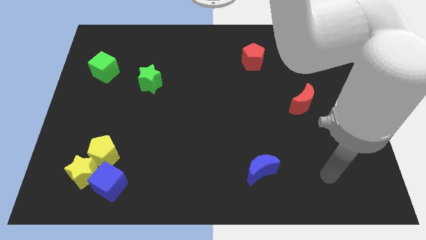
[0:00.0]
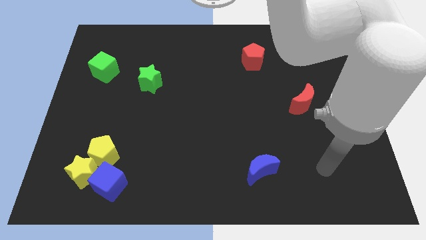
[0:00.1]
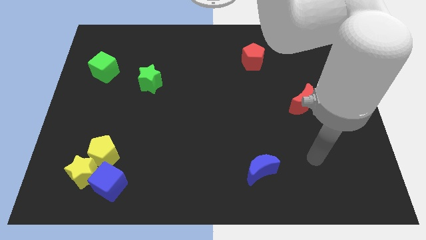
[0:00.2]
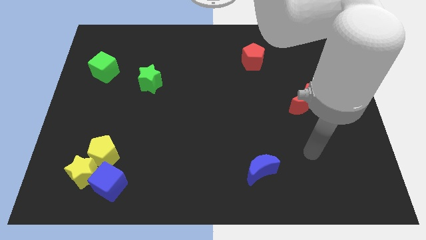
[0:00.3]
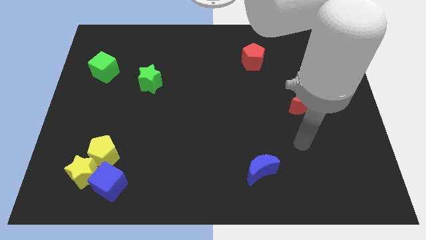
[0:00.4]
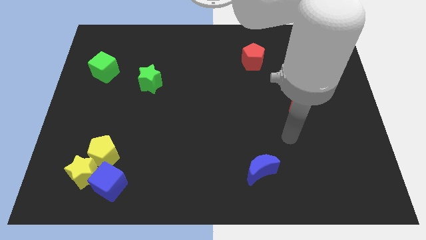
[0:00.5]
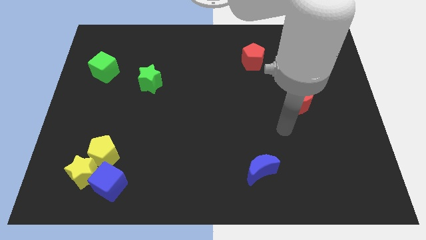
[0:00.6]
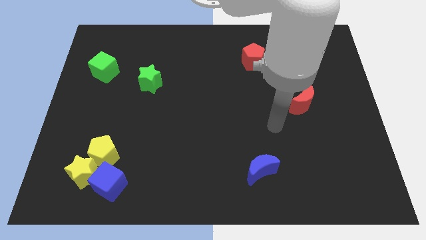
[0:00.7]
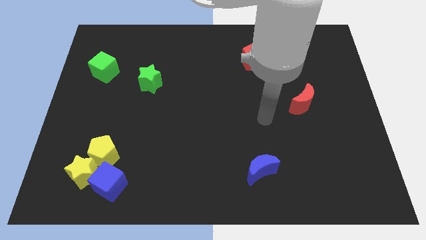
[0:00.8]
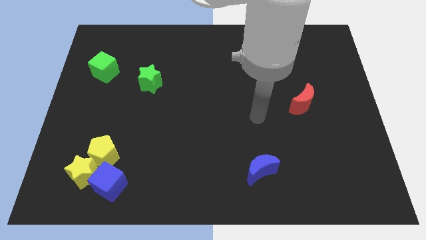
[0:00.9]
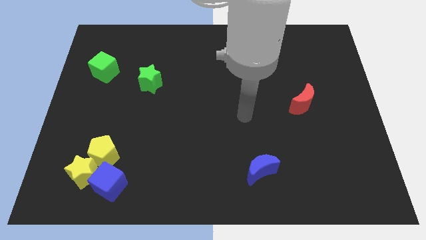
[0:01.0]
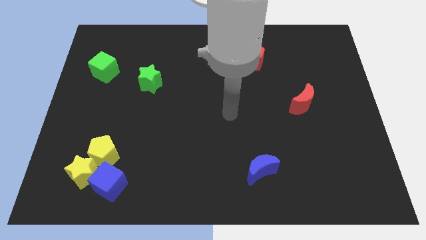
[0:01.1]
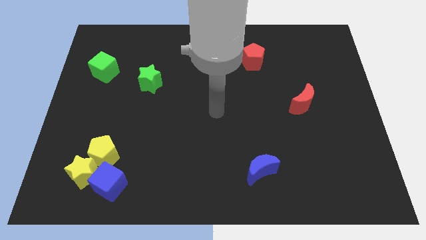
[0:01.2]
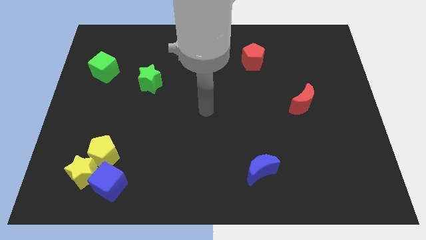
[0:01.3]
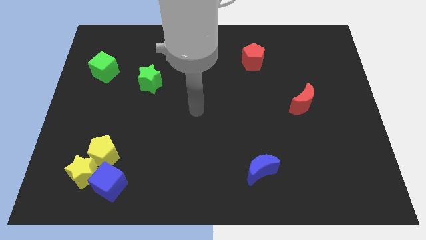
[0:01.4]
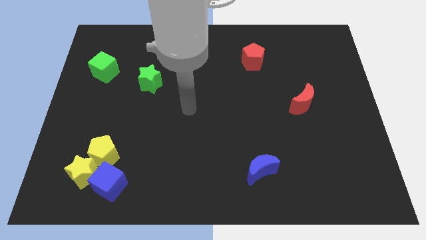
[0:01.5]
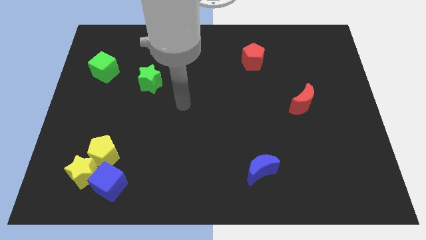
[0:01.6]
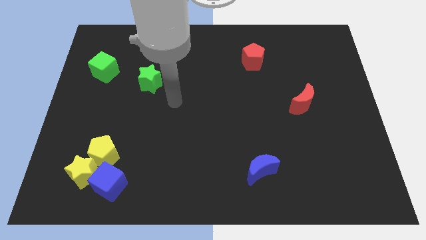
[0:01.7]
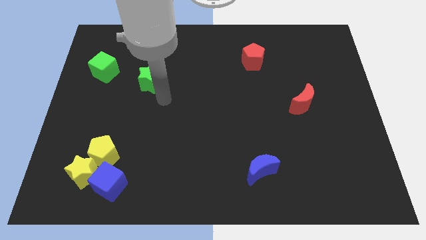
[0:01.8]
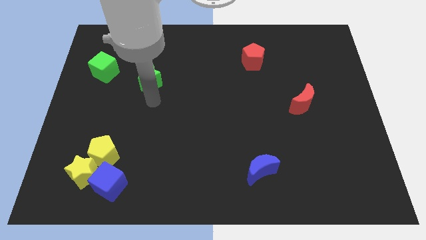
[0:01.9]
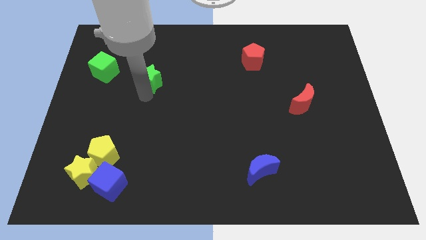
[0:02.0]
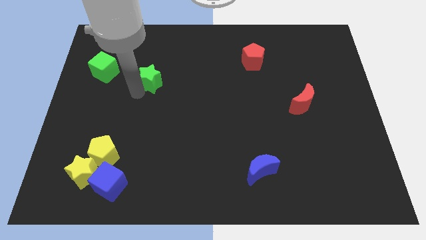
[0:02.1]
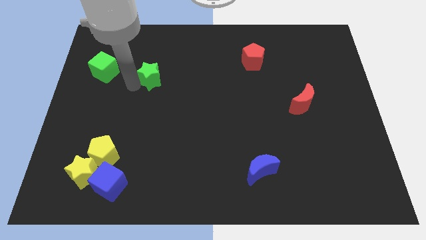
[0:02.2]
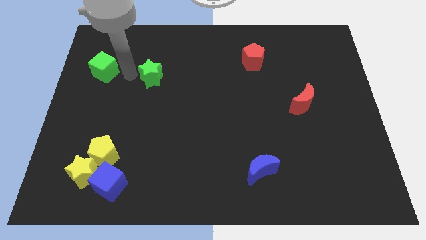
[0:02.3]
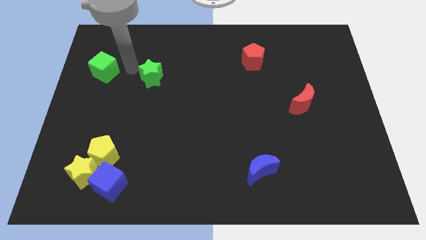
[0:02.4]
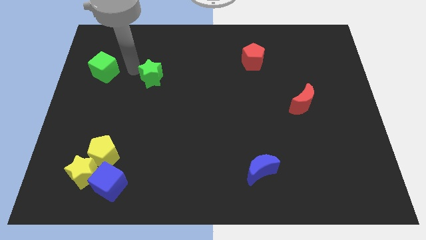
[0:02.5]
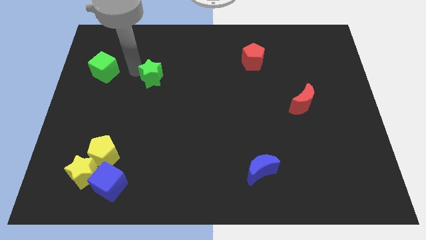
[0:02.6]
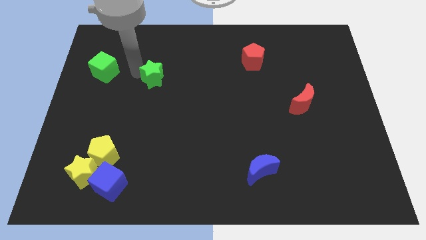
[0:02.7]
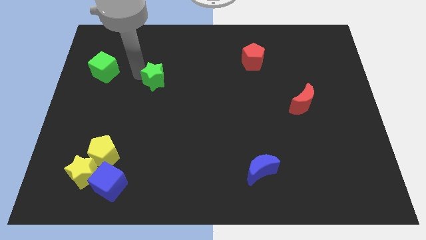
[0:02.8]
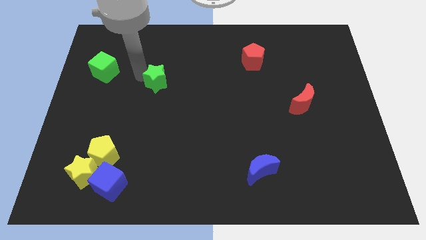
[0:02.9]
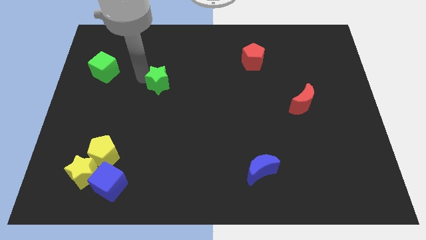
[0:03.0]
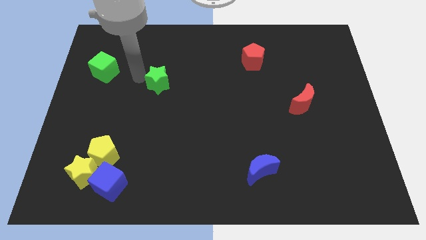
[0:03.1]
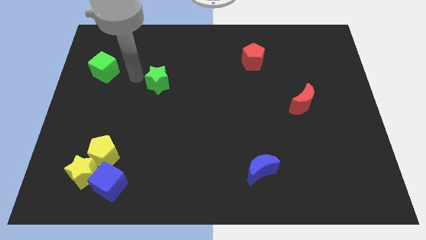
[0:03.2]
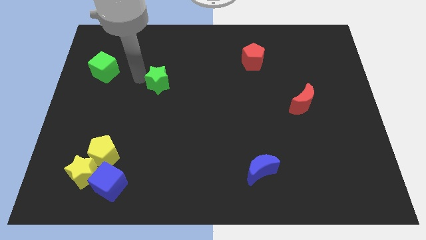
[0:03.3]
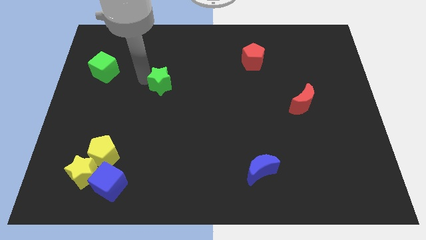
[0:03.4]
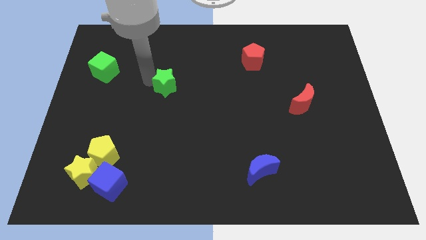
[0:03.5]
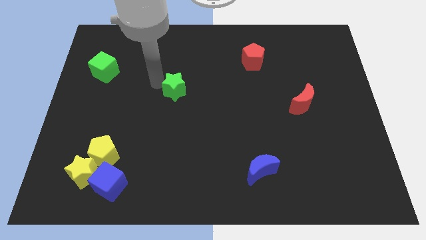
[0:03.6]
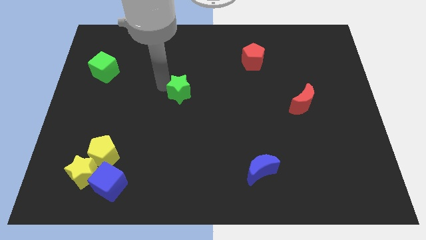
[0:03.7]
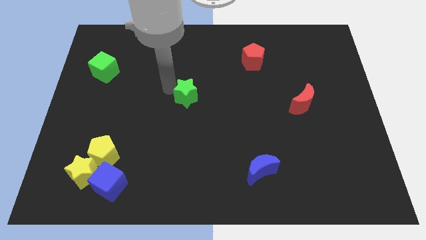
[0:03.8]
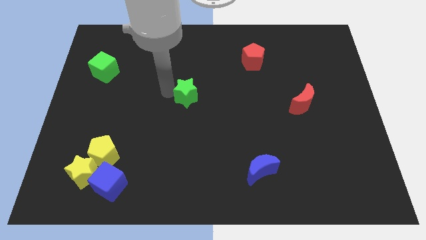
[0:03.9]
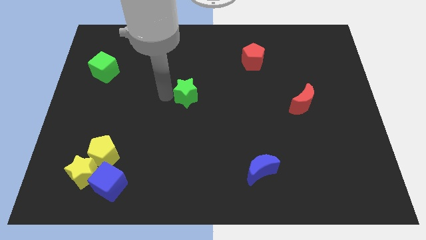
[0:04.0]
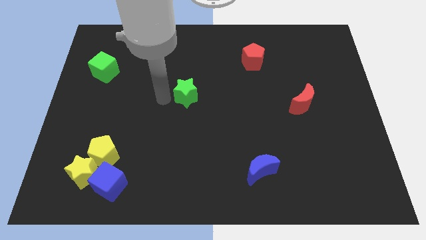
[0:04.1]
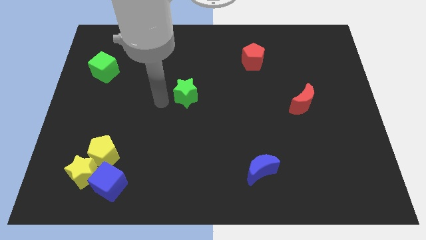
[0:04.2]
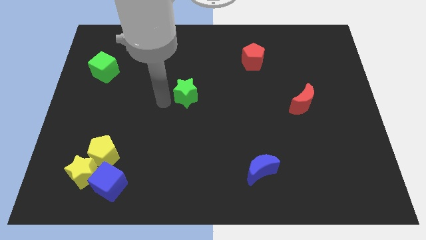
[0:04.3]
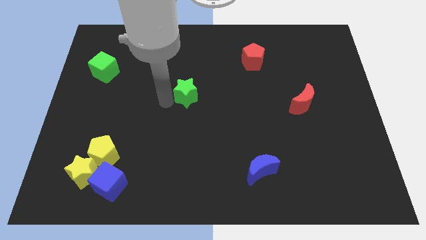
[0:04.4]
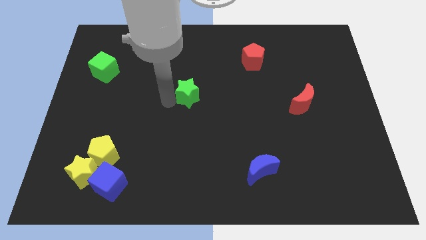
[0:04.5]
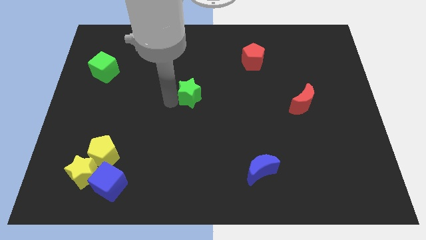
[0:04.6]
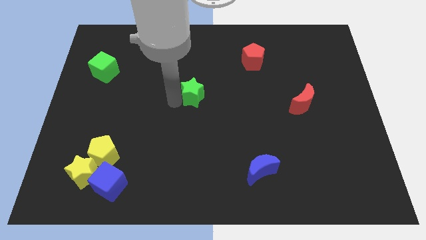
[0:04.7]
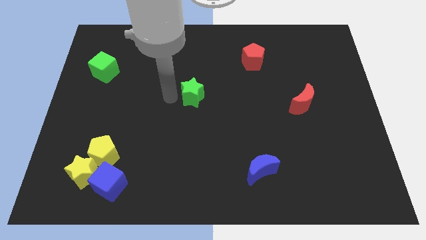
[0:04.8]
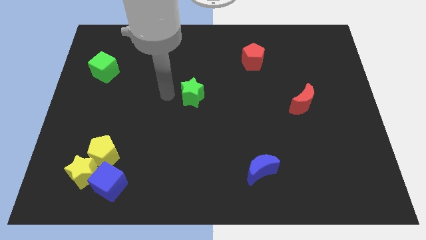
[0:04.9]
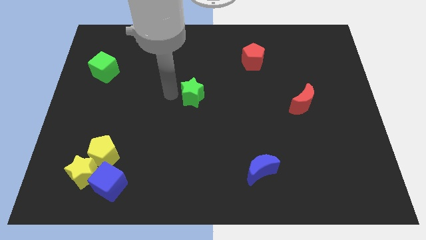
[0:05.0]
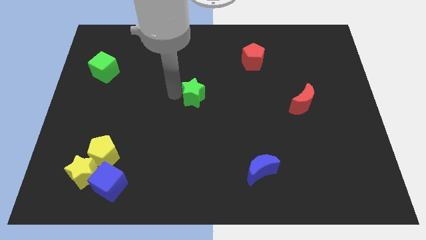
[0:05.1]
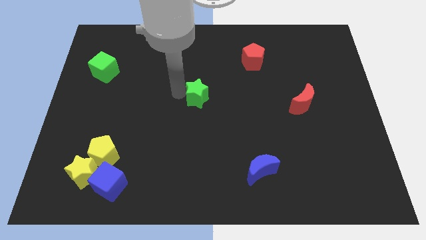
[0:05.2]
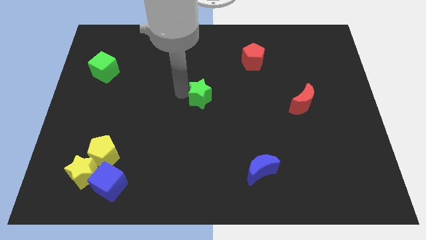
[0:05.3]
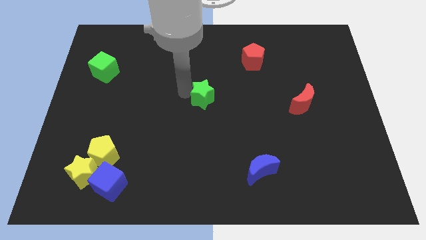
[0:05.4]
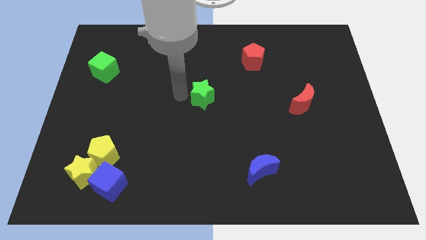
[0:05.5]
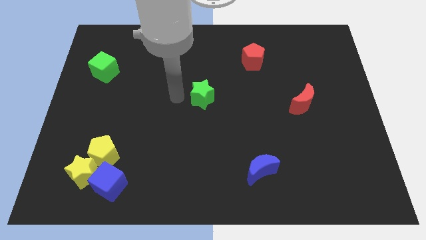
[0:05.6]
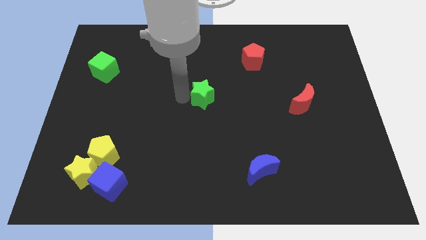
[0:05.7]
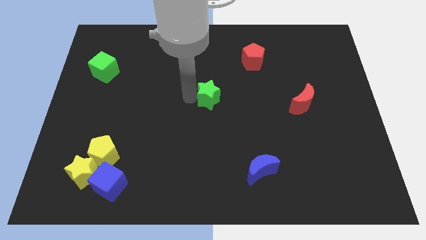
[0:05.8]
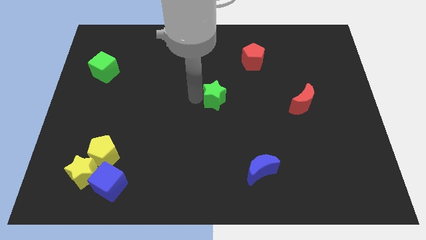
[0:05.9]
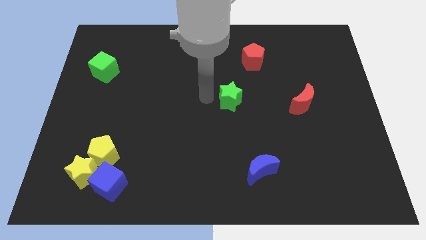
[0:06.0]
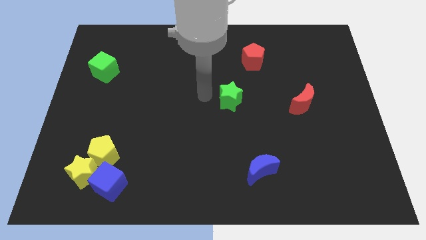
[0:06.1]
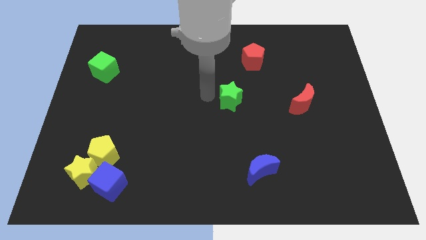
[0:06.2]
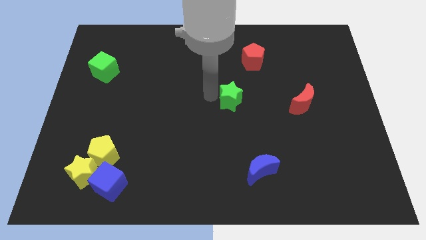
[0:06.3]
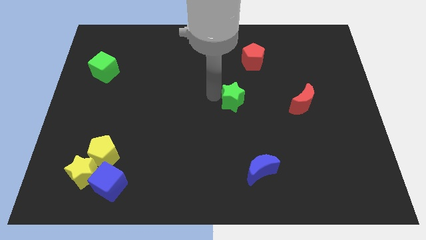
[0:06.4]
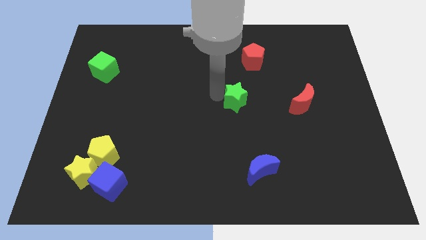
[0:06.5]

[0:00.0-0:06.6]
push the green star to the left side of the red moon

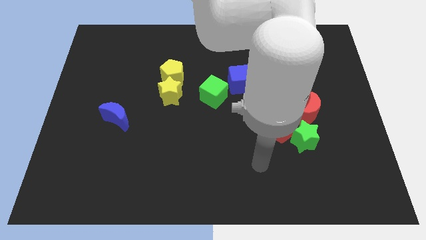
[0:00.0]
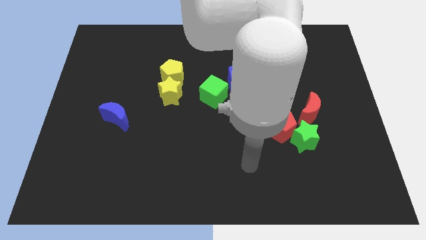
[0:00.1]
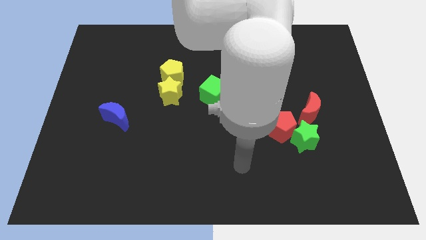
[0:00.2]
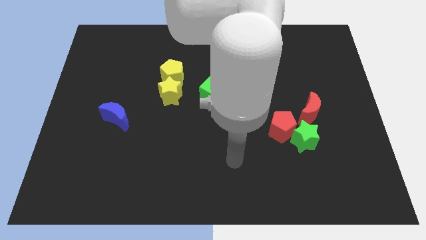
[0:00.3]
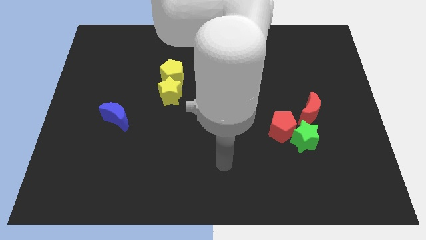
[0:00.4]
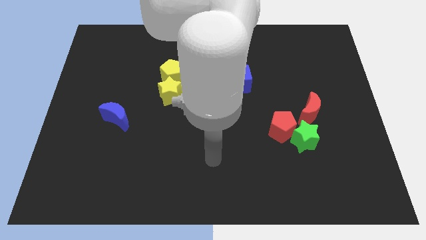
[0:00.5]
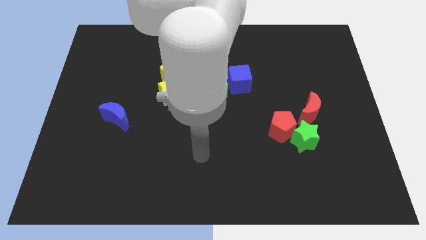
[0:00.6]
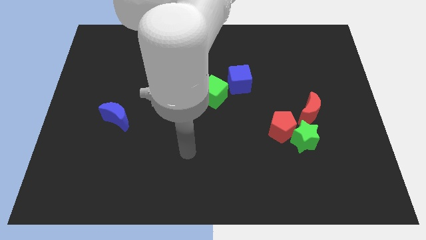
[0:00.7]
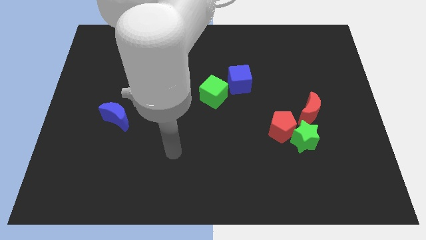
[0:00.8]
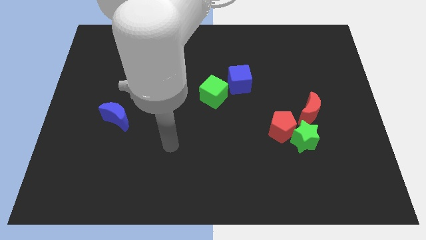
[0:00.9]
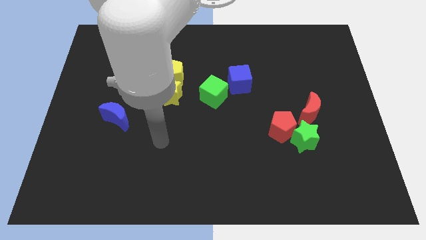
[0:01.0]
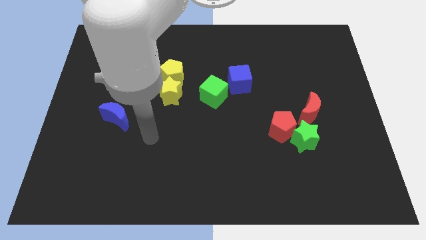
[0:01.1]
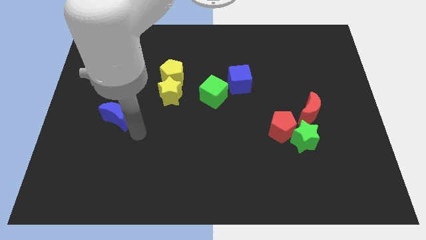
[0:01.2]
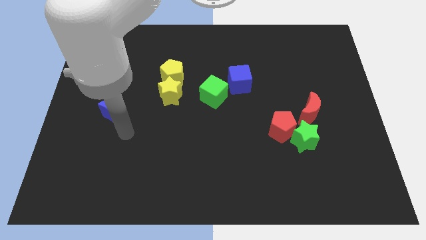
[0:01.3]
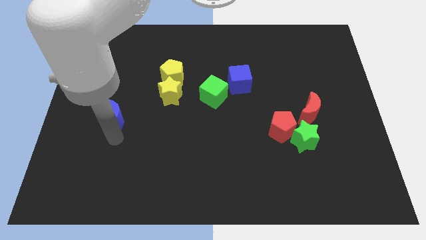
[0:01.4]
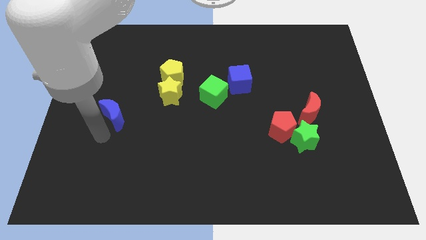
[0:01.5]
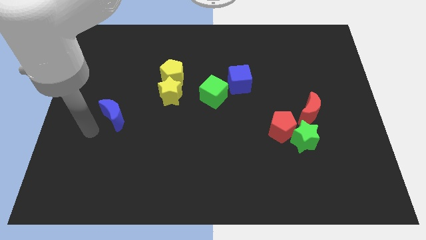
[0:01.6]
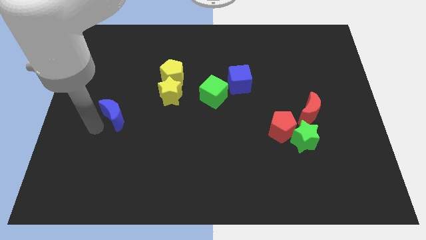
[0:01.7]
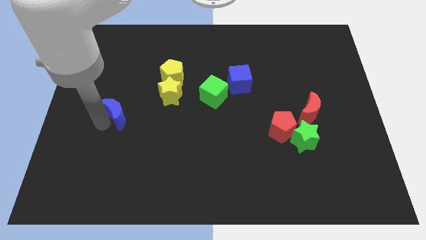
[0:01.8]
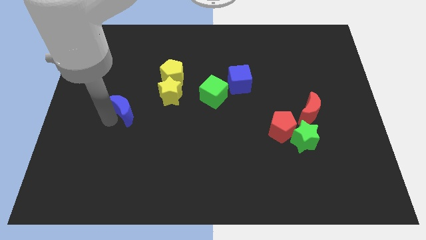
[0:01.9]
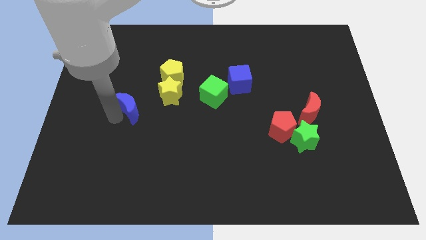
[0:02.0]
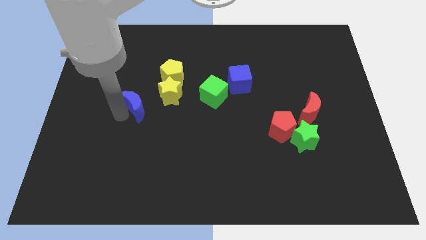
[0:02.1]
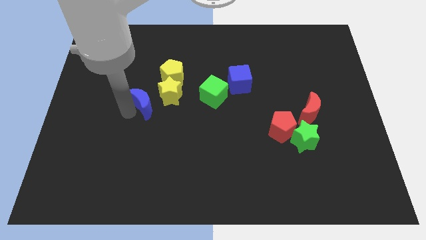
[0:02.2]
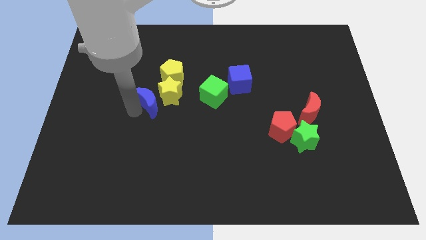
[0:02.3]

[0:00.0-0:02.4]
put the blue moon just left of the green cube
